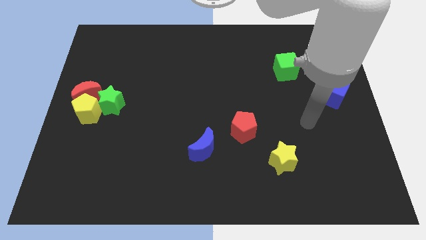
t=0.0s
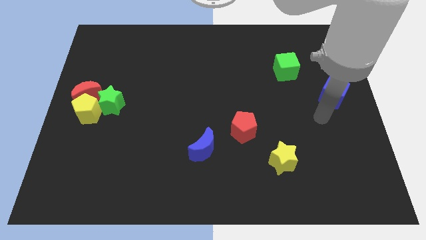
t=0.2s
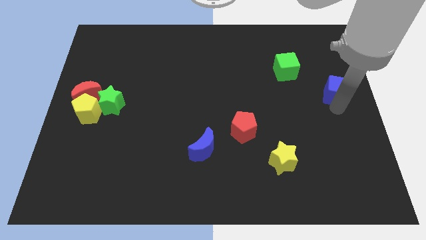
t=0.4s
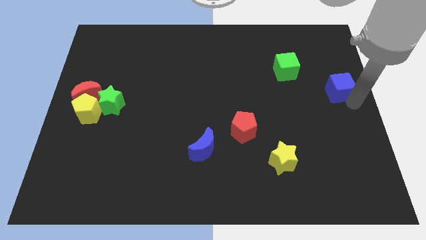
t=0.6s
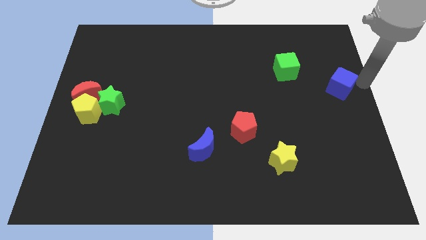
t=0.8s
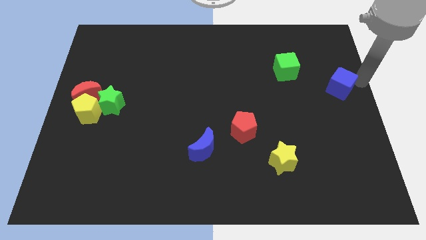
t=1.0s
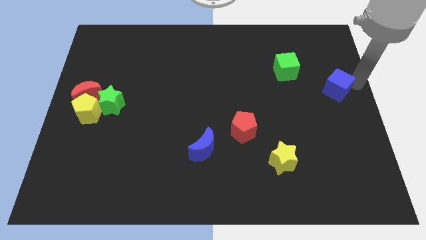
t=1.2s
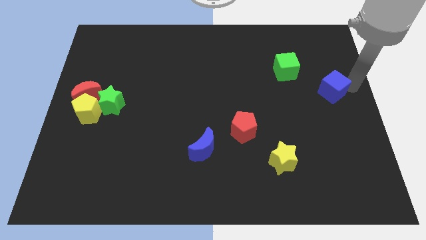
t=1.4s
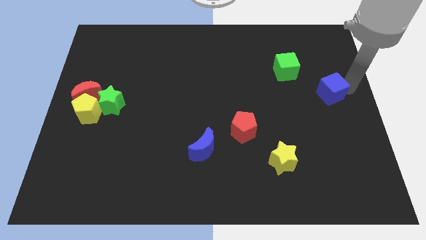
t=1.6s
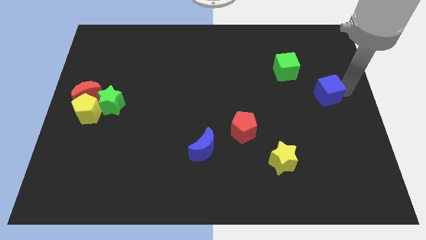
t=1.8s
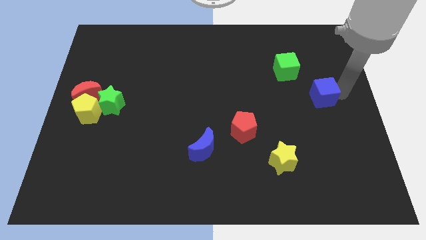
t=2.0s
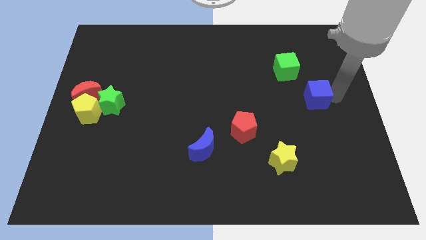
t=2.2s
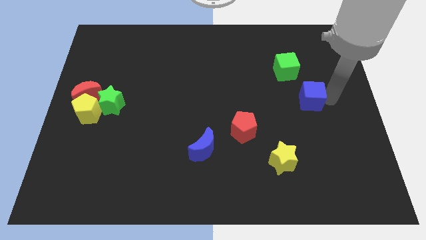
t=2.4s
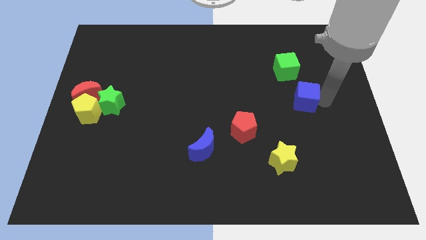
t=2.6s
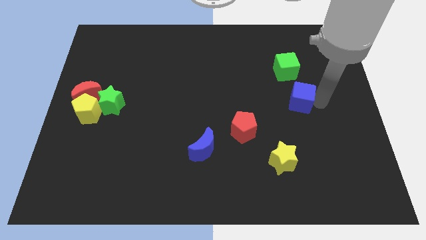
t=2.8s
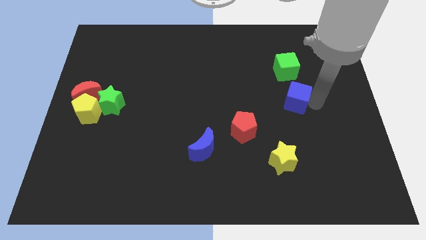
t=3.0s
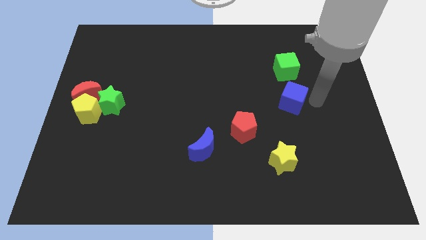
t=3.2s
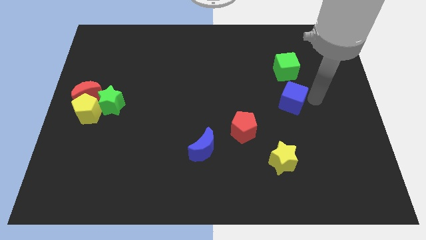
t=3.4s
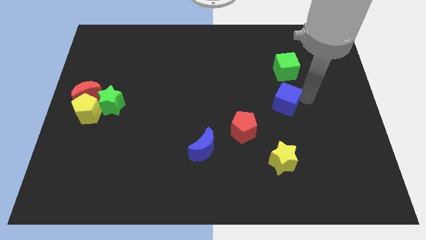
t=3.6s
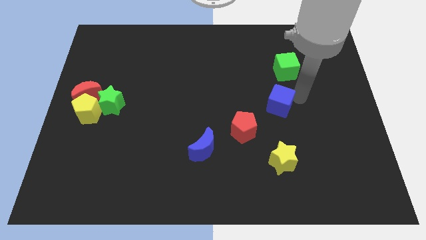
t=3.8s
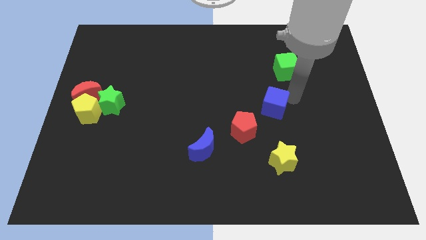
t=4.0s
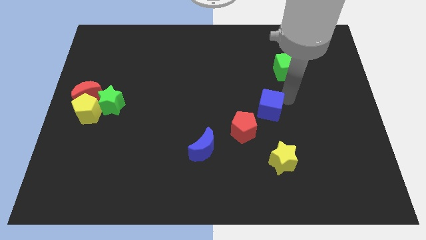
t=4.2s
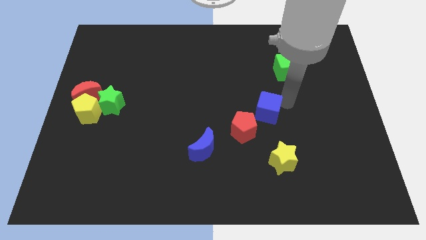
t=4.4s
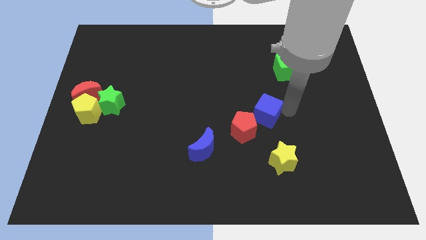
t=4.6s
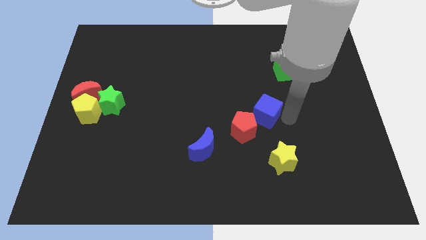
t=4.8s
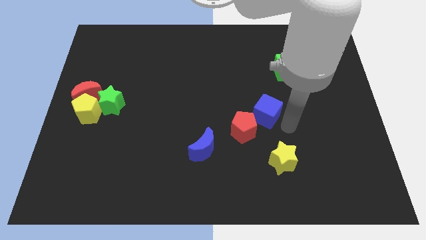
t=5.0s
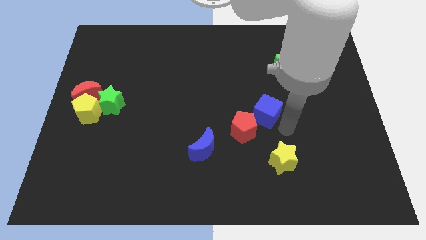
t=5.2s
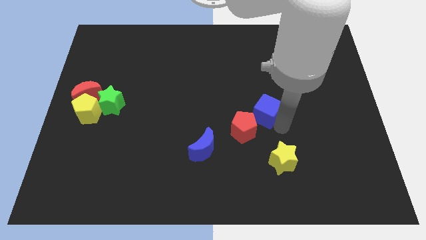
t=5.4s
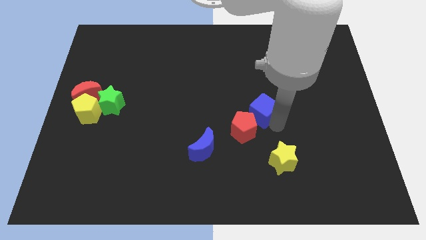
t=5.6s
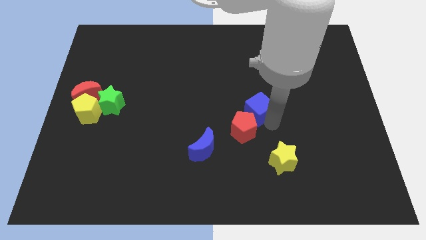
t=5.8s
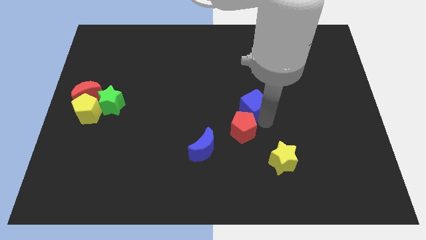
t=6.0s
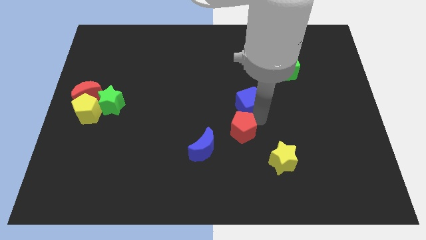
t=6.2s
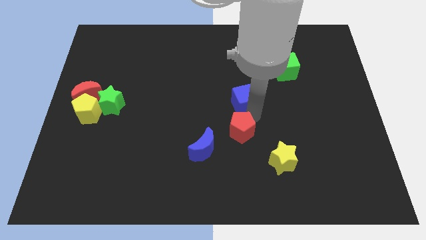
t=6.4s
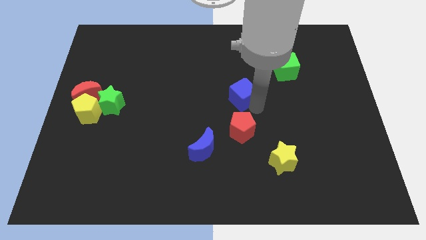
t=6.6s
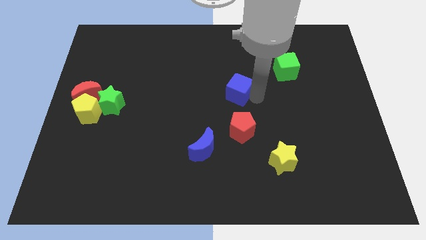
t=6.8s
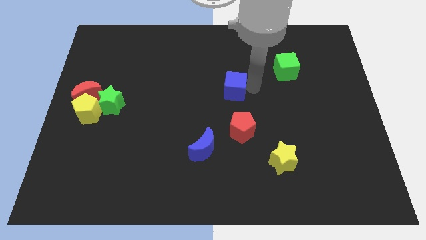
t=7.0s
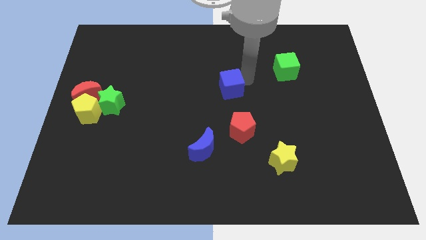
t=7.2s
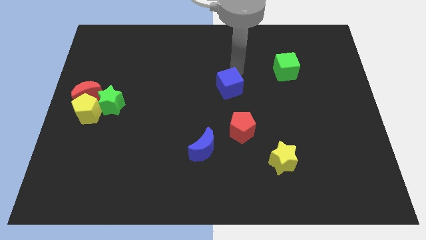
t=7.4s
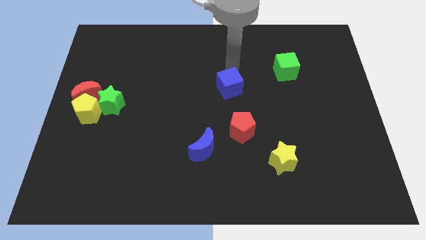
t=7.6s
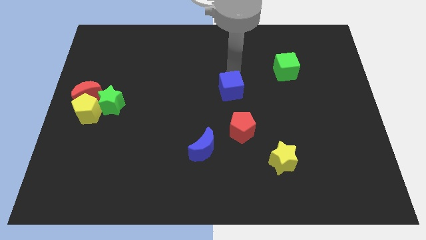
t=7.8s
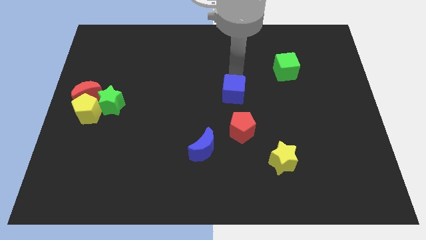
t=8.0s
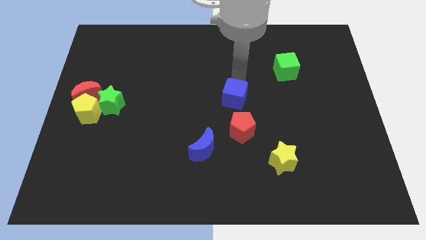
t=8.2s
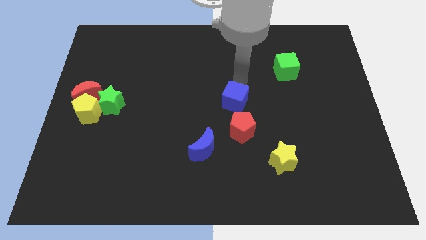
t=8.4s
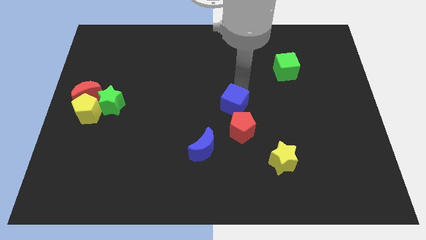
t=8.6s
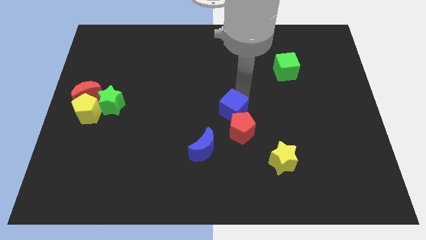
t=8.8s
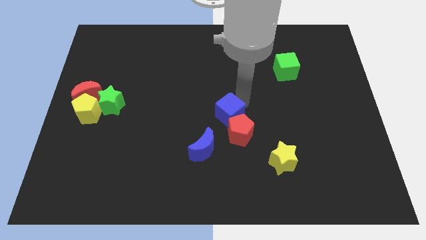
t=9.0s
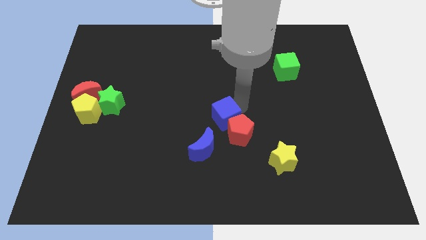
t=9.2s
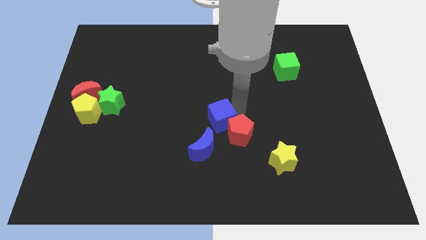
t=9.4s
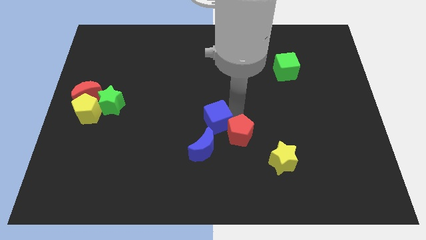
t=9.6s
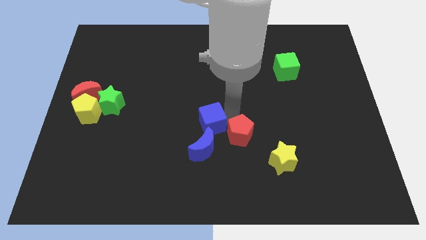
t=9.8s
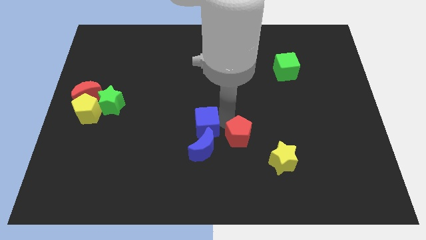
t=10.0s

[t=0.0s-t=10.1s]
push the blue cube to the top left side of the blue moon

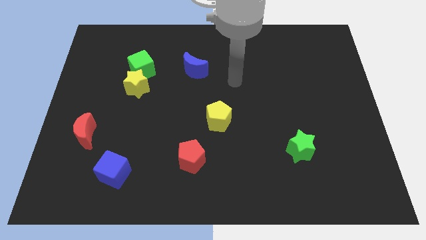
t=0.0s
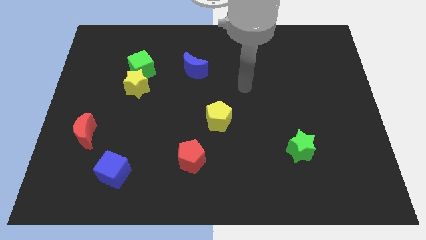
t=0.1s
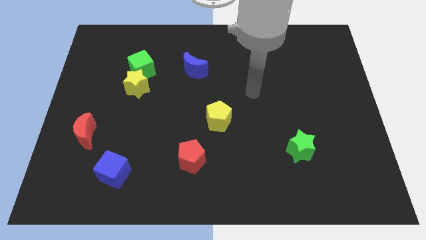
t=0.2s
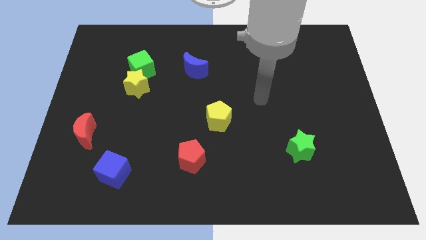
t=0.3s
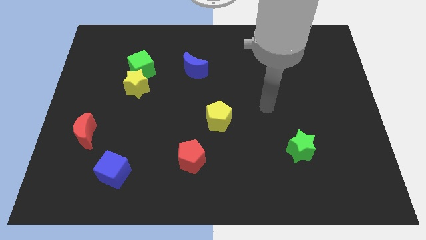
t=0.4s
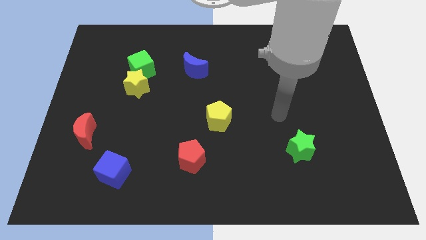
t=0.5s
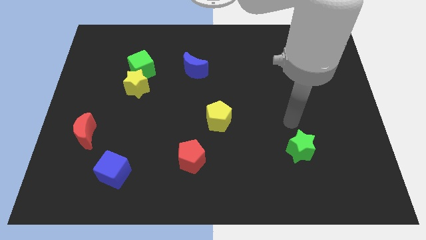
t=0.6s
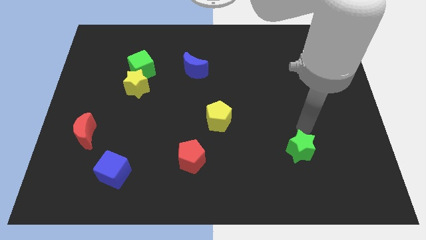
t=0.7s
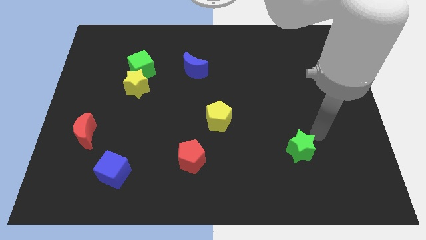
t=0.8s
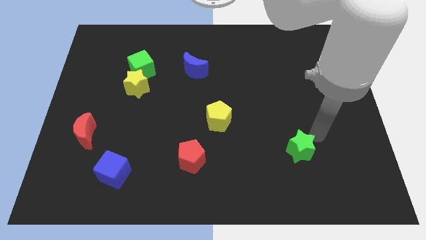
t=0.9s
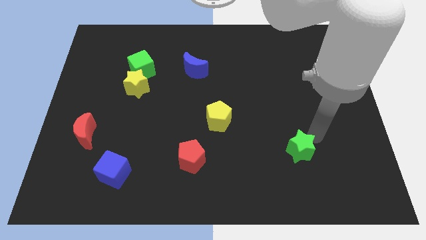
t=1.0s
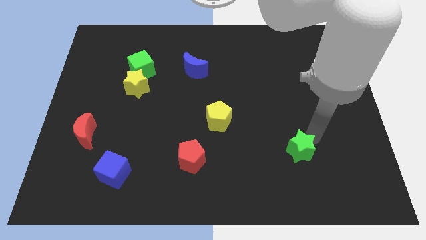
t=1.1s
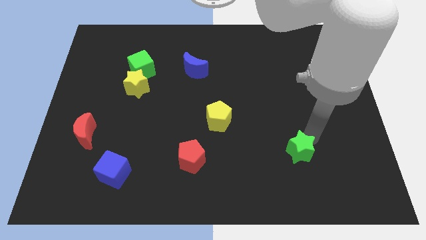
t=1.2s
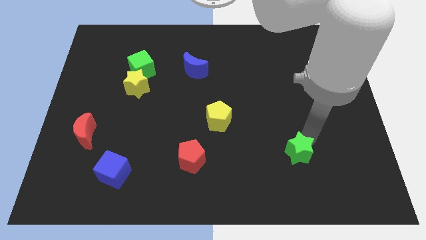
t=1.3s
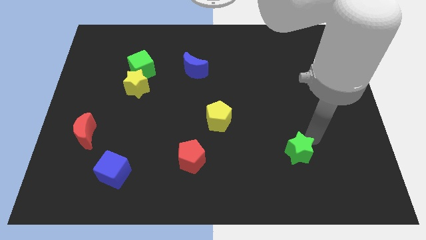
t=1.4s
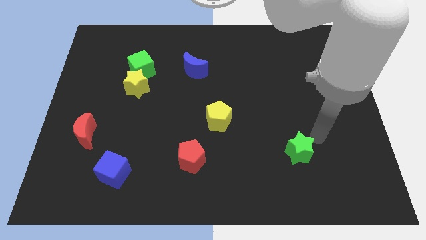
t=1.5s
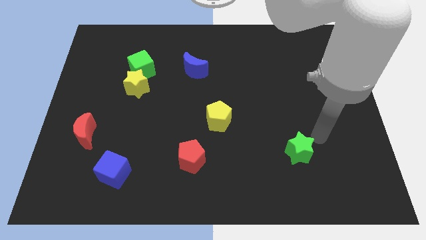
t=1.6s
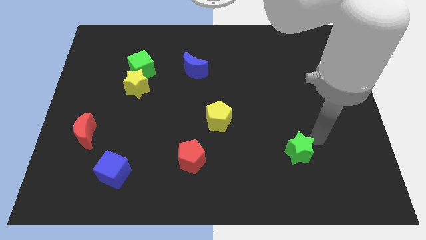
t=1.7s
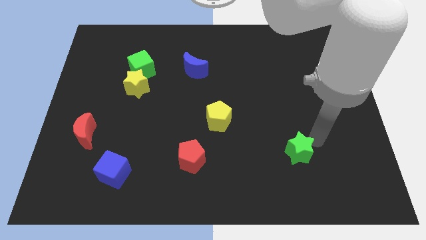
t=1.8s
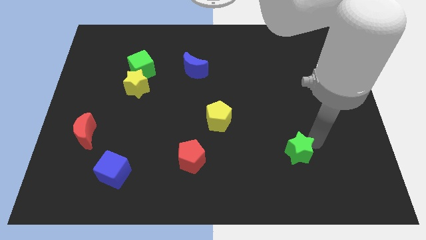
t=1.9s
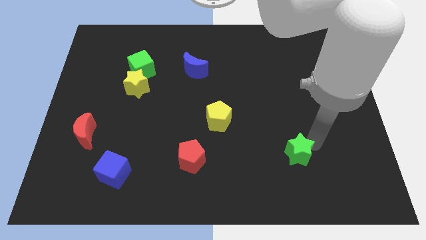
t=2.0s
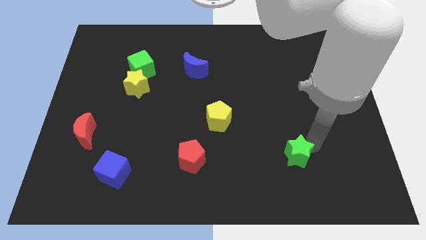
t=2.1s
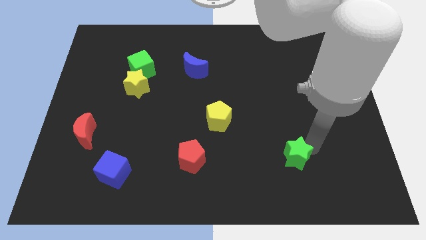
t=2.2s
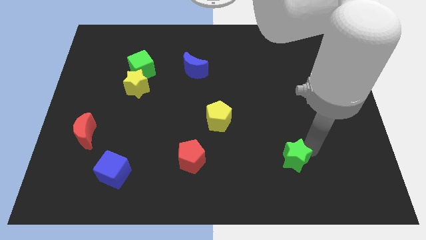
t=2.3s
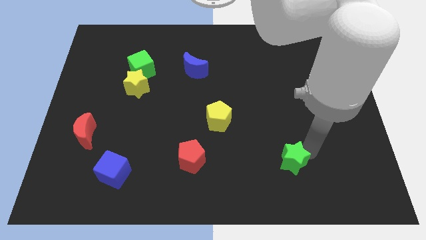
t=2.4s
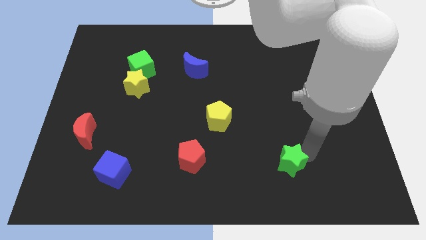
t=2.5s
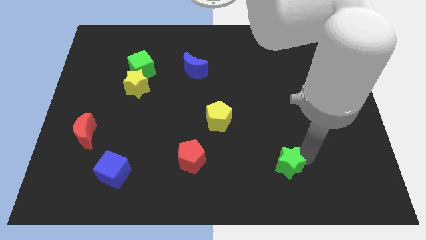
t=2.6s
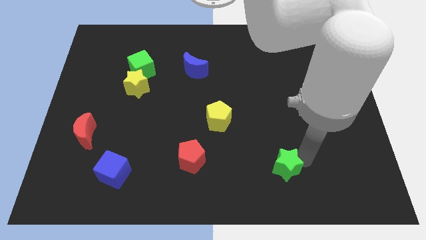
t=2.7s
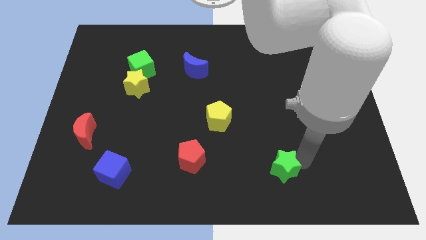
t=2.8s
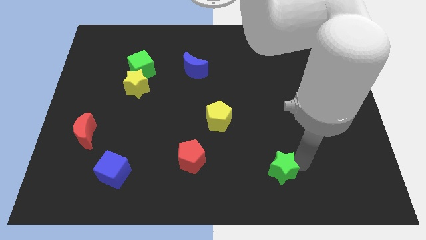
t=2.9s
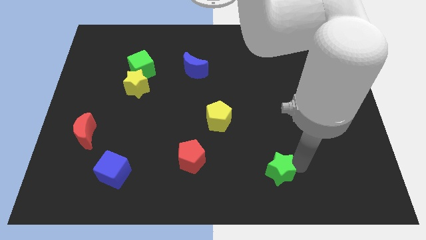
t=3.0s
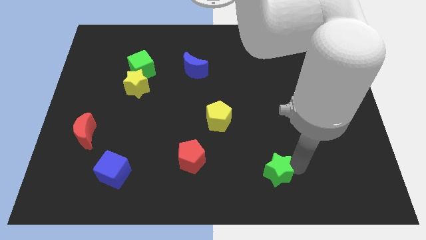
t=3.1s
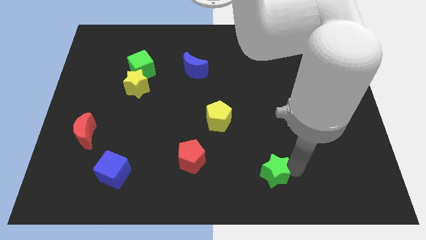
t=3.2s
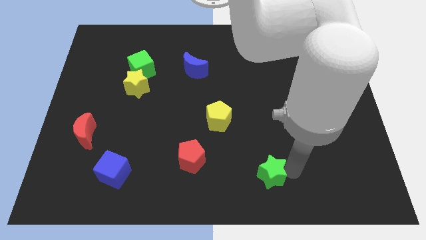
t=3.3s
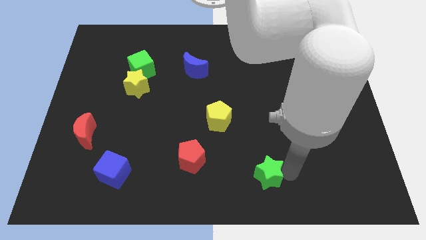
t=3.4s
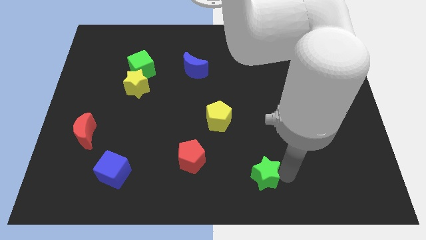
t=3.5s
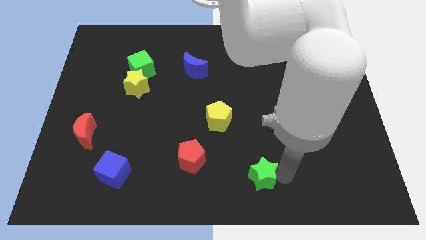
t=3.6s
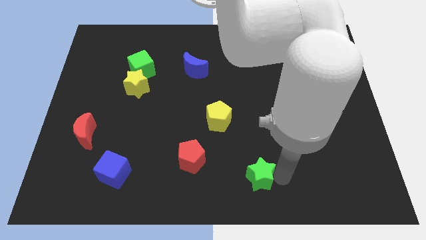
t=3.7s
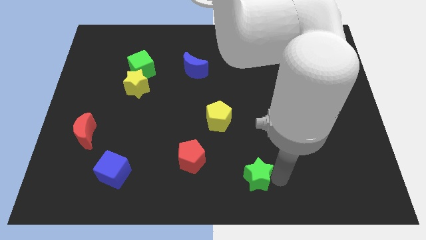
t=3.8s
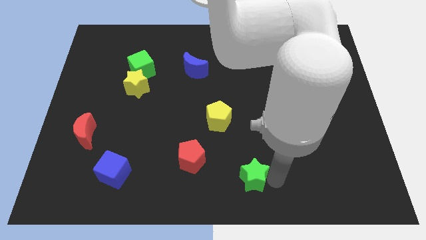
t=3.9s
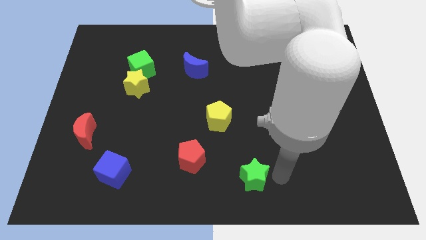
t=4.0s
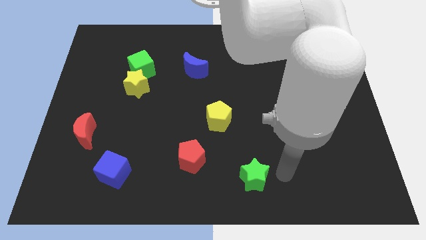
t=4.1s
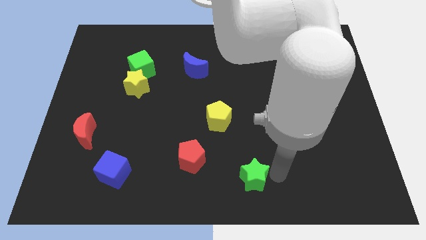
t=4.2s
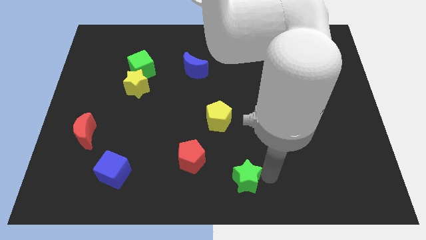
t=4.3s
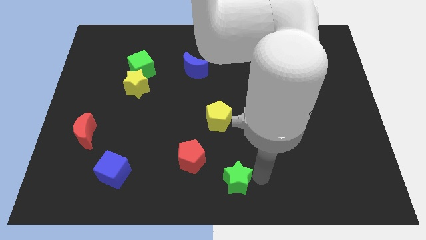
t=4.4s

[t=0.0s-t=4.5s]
slide the green star to the bottom right side of the red pentagon
